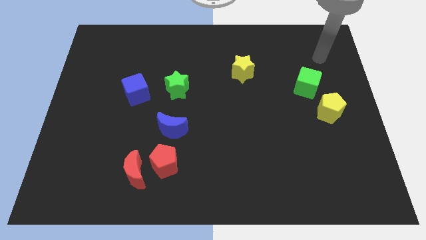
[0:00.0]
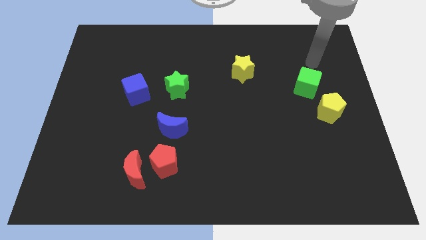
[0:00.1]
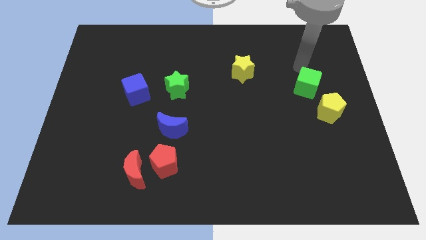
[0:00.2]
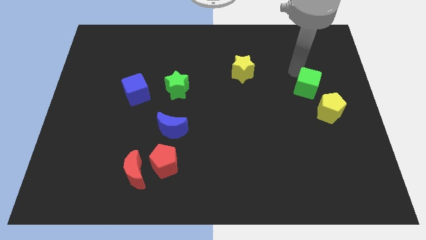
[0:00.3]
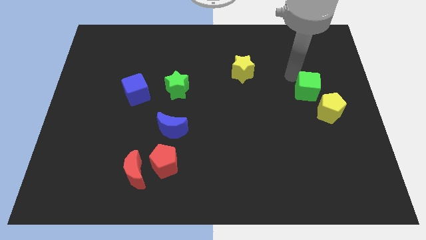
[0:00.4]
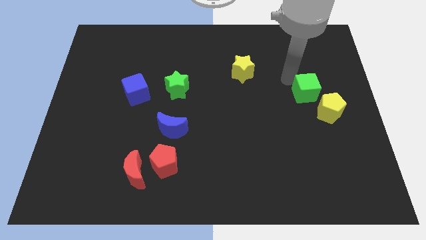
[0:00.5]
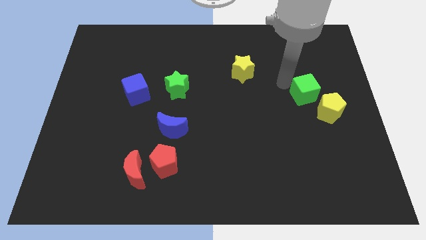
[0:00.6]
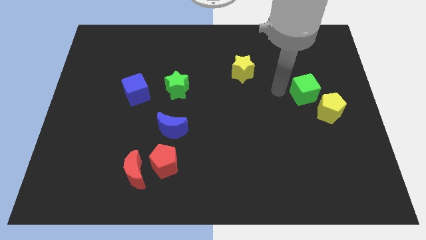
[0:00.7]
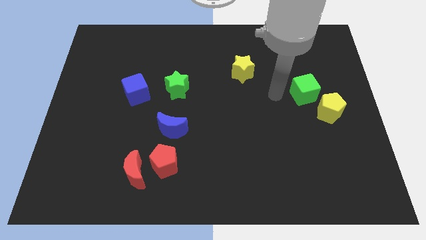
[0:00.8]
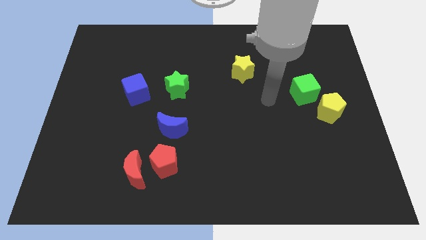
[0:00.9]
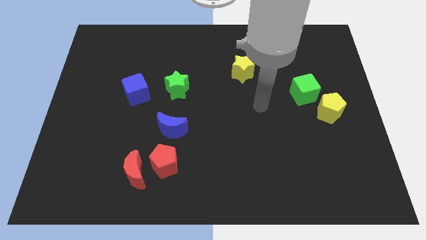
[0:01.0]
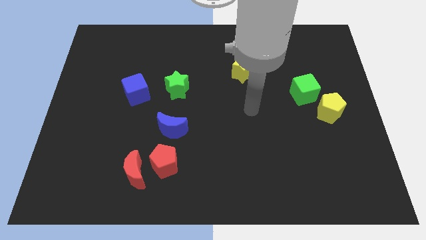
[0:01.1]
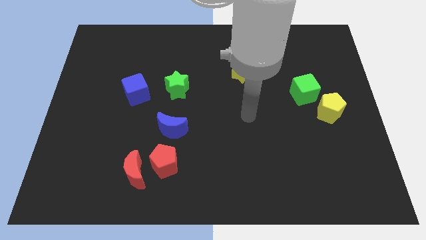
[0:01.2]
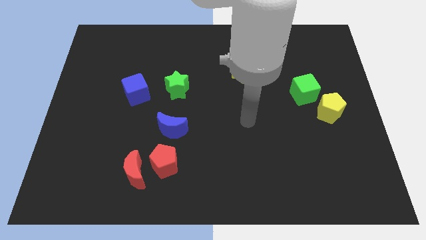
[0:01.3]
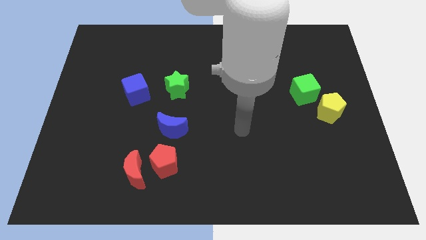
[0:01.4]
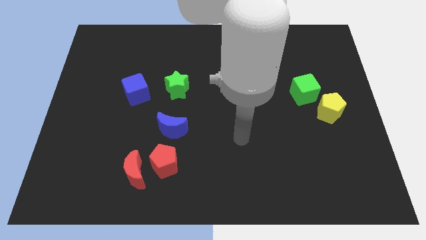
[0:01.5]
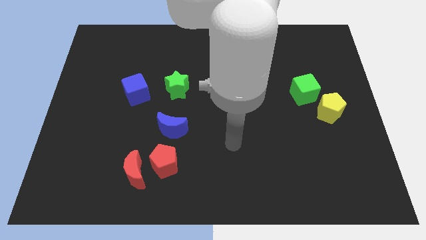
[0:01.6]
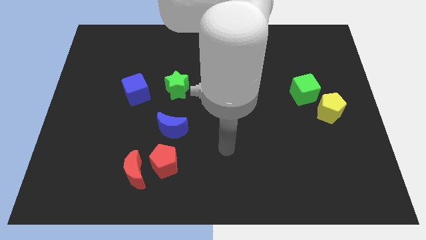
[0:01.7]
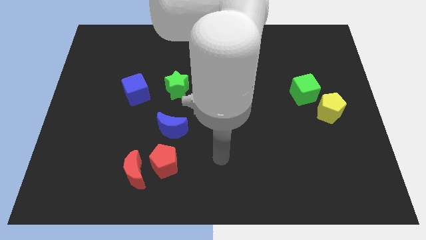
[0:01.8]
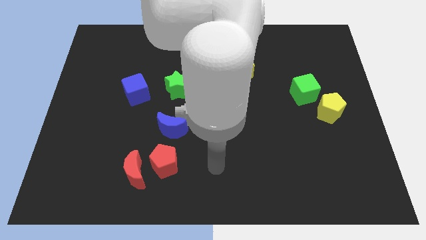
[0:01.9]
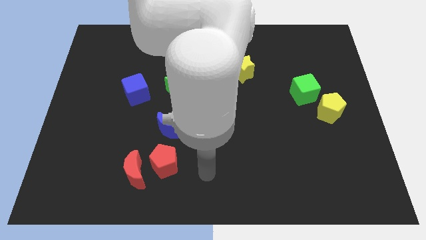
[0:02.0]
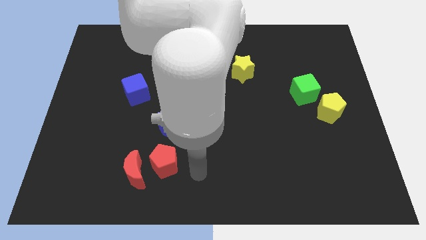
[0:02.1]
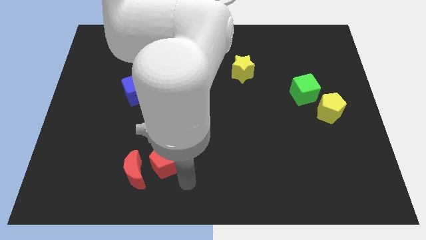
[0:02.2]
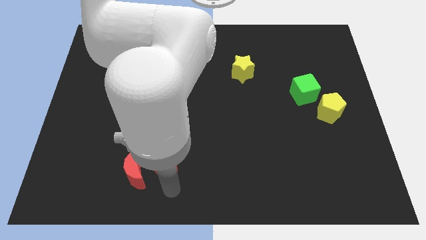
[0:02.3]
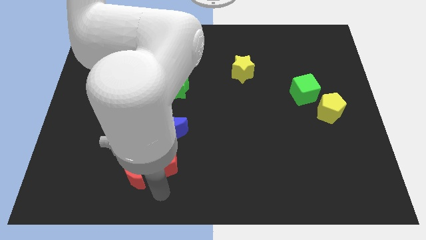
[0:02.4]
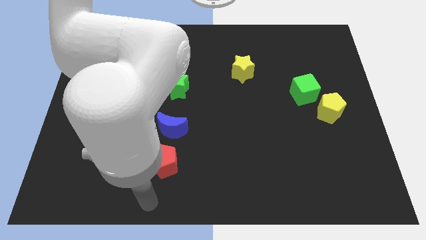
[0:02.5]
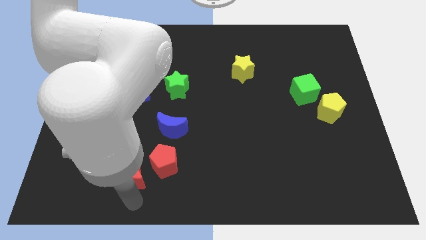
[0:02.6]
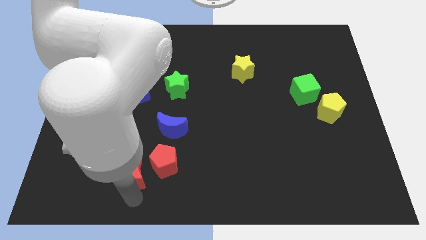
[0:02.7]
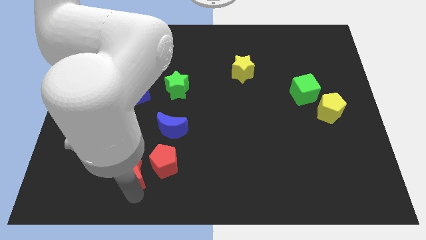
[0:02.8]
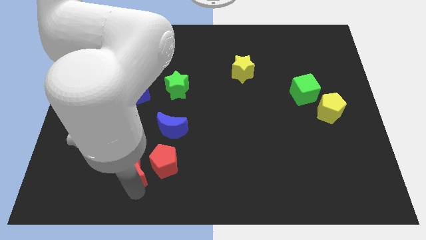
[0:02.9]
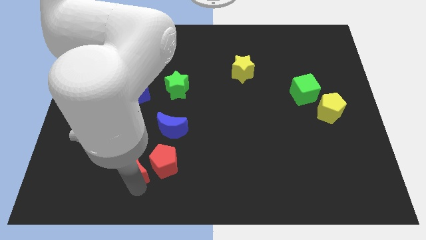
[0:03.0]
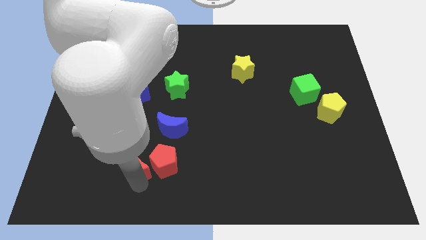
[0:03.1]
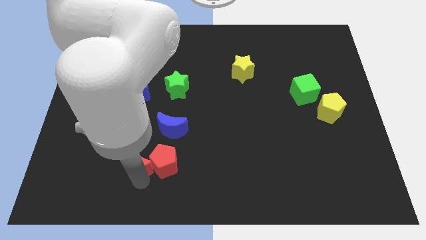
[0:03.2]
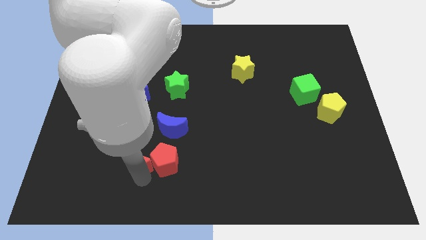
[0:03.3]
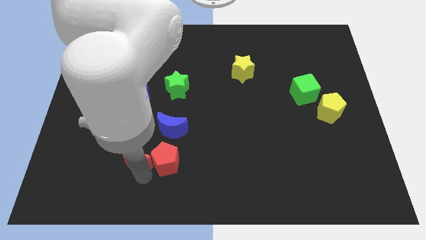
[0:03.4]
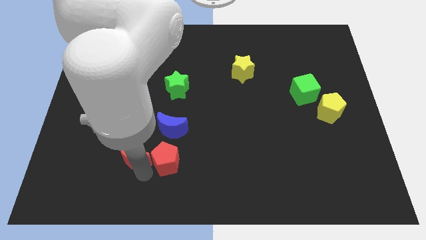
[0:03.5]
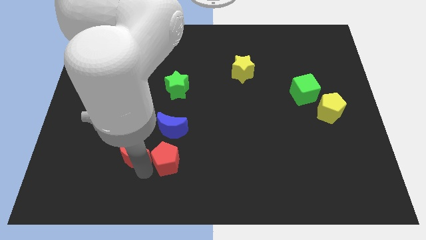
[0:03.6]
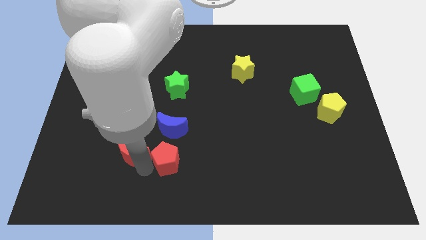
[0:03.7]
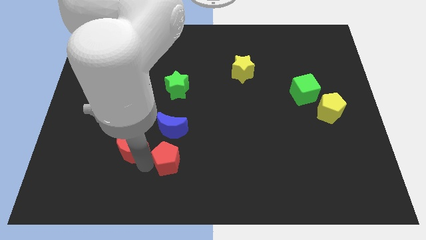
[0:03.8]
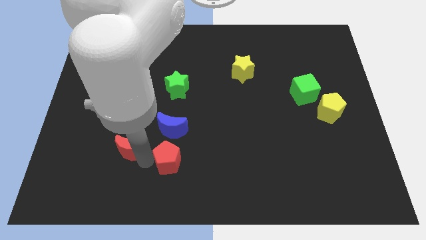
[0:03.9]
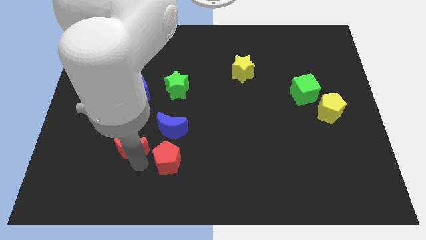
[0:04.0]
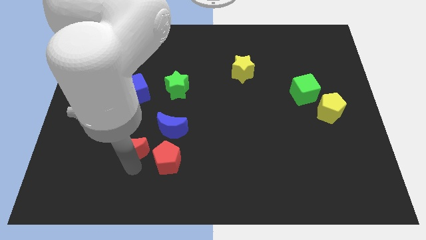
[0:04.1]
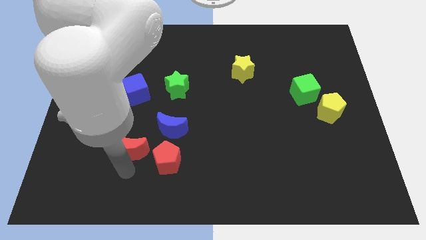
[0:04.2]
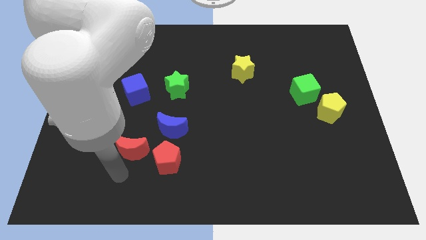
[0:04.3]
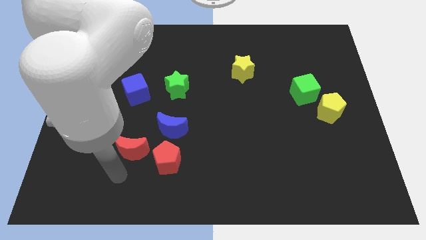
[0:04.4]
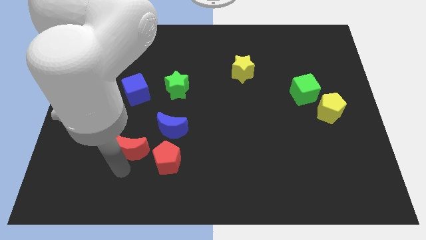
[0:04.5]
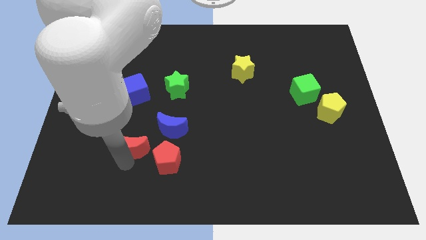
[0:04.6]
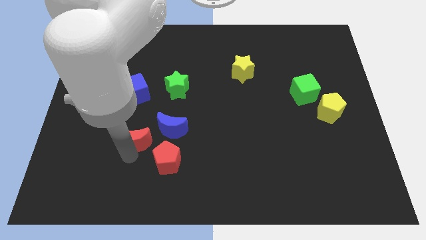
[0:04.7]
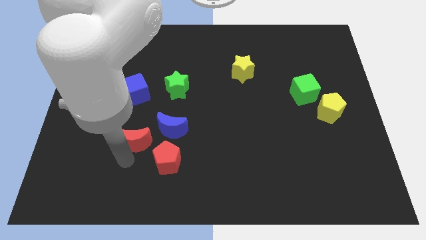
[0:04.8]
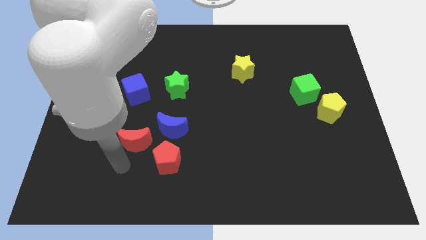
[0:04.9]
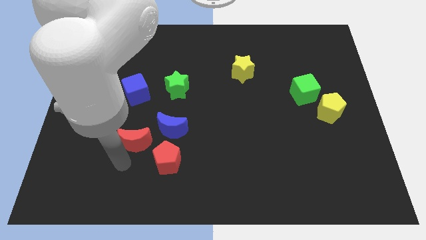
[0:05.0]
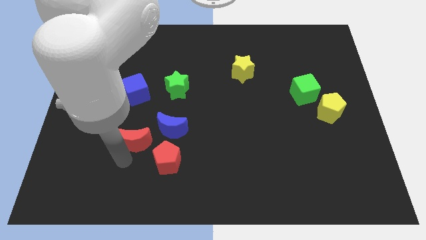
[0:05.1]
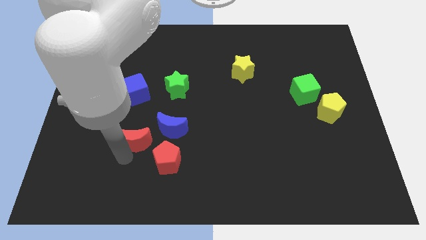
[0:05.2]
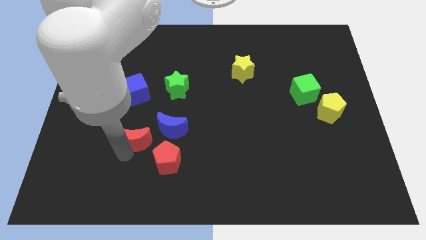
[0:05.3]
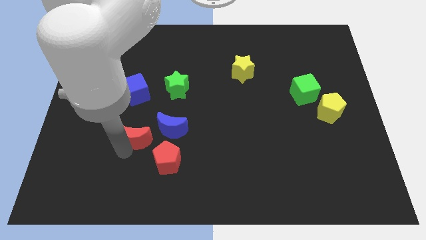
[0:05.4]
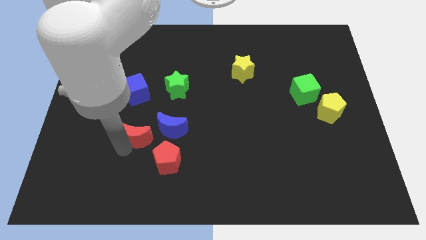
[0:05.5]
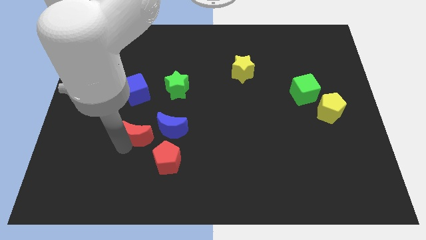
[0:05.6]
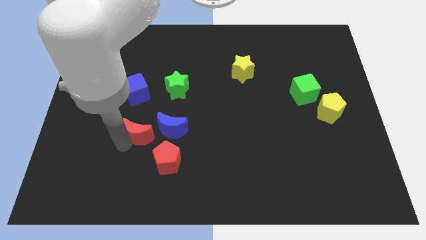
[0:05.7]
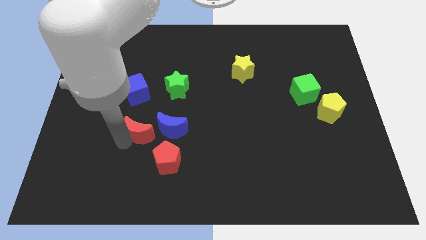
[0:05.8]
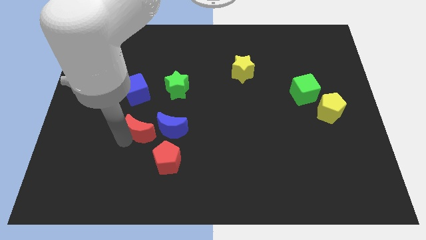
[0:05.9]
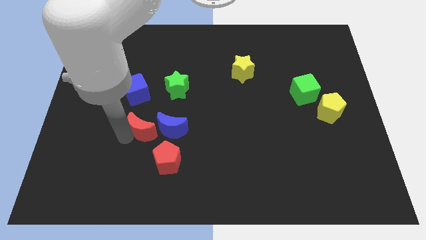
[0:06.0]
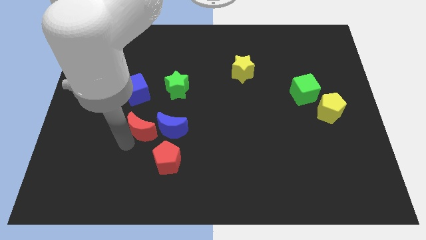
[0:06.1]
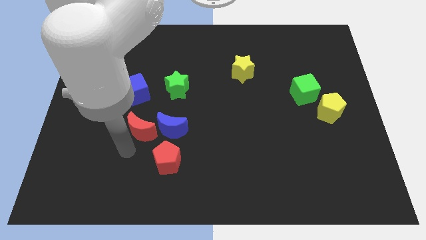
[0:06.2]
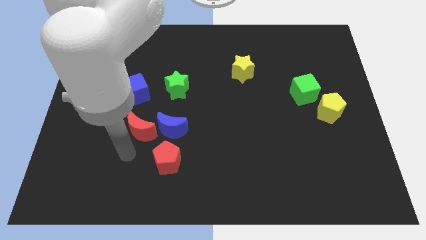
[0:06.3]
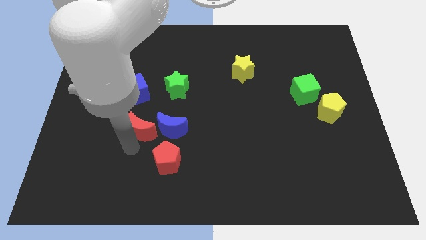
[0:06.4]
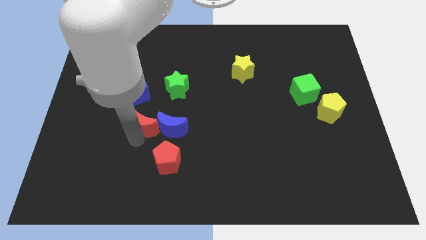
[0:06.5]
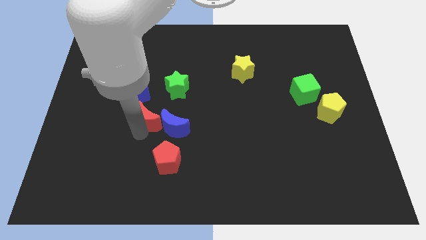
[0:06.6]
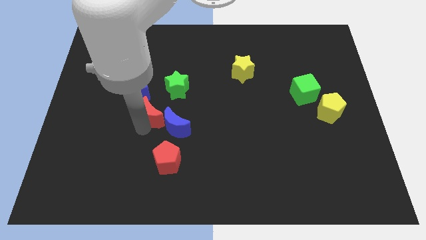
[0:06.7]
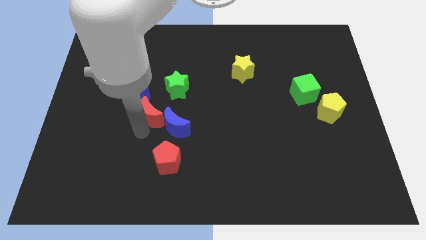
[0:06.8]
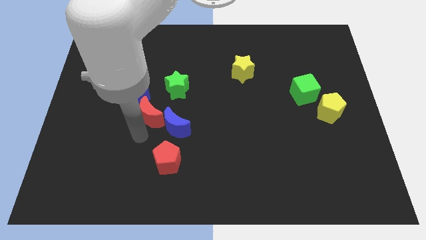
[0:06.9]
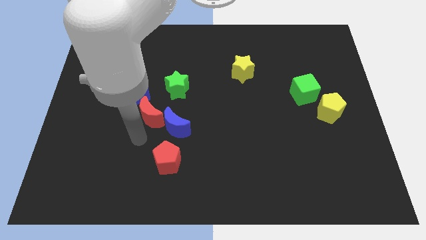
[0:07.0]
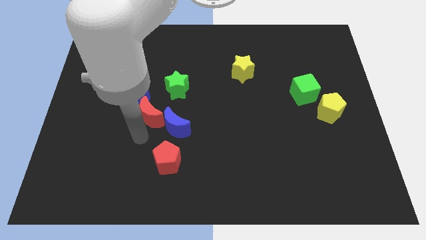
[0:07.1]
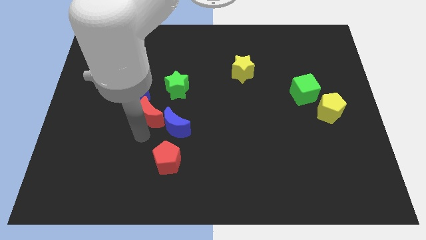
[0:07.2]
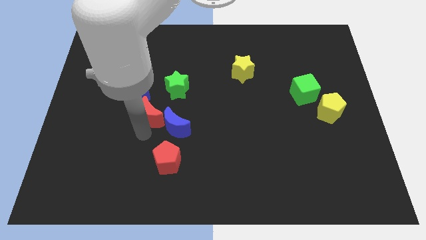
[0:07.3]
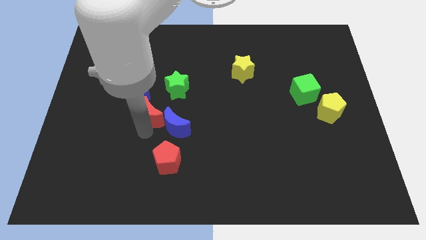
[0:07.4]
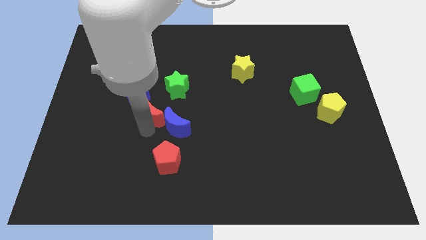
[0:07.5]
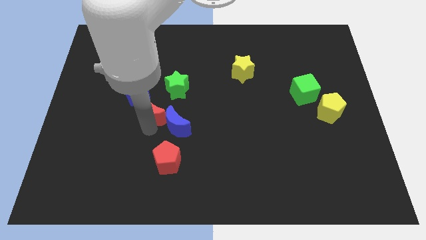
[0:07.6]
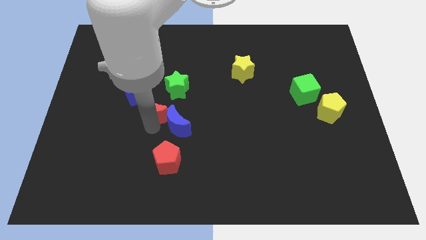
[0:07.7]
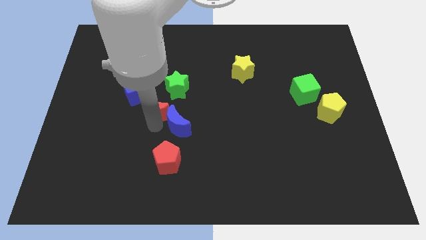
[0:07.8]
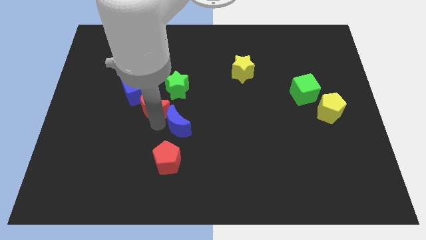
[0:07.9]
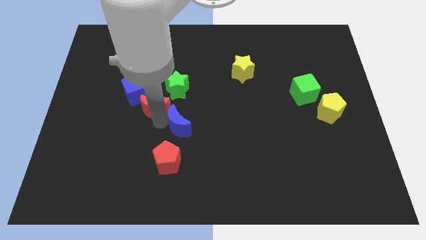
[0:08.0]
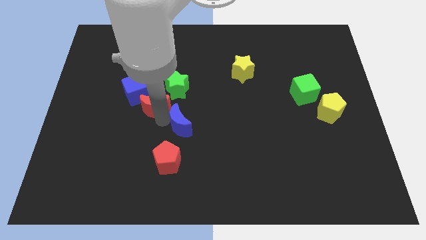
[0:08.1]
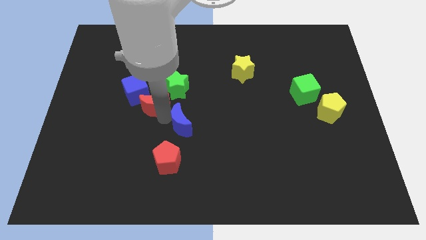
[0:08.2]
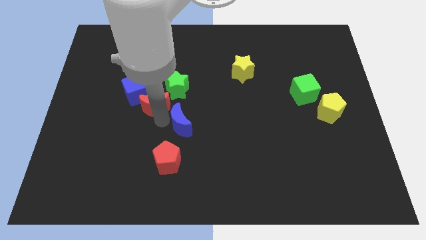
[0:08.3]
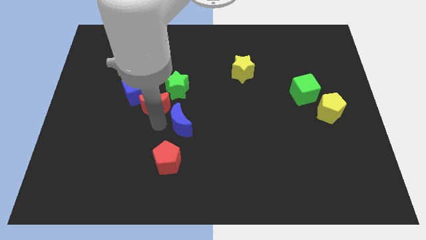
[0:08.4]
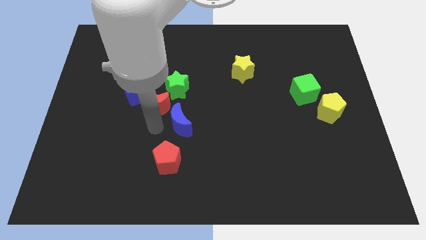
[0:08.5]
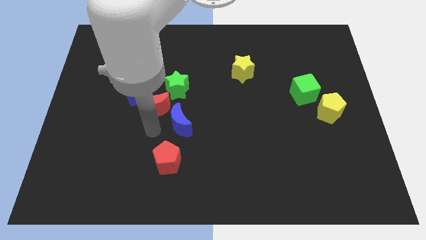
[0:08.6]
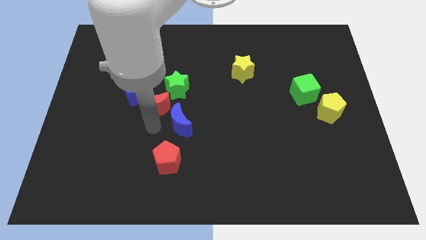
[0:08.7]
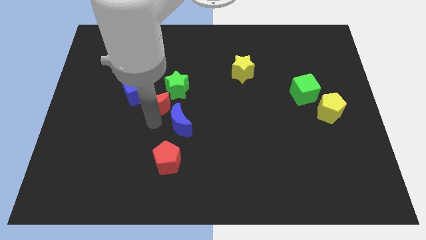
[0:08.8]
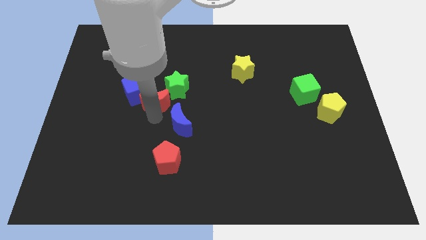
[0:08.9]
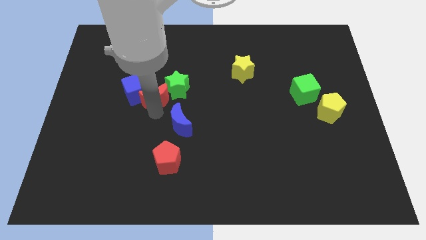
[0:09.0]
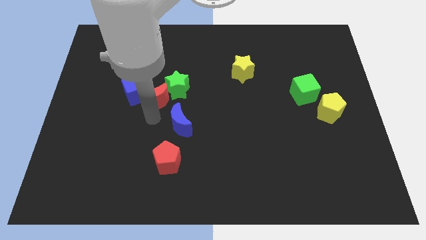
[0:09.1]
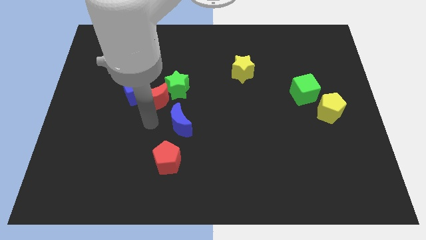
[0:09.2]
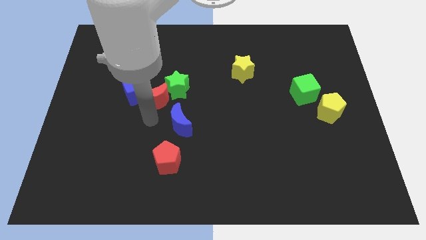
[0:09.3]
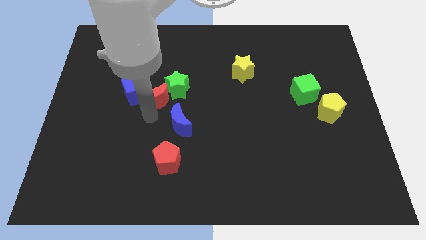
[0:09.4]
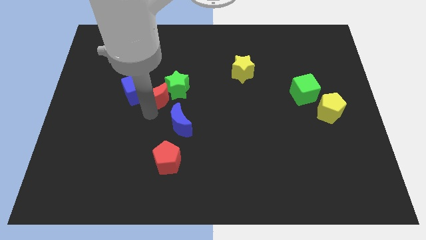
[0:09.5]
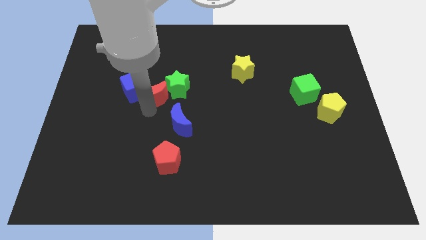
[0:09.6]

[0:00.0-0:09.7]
push the red moon up
